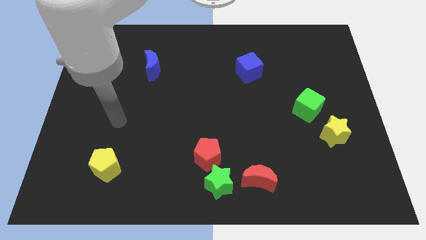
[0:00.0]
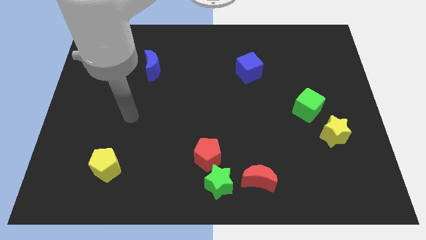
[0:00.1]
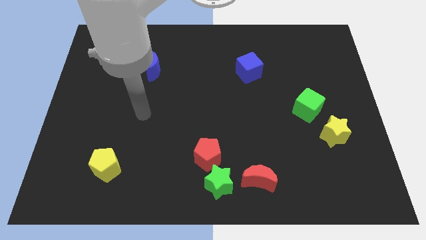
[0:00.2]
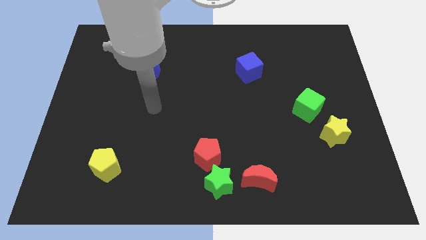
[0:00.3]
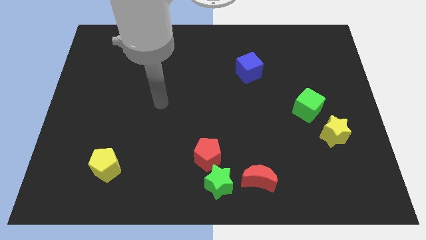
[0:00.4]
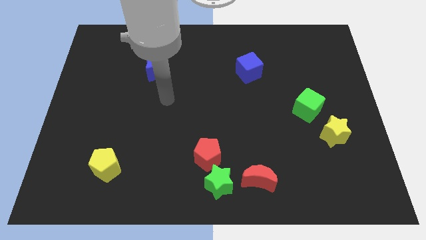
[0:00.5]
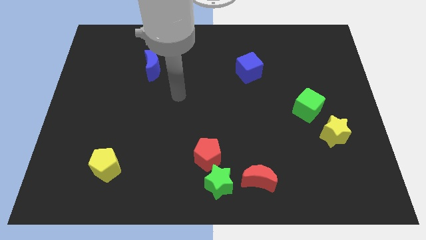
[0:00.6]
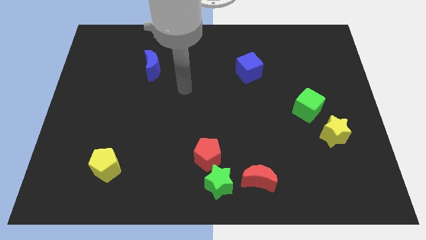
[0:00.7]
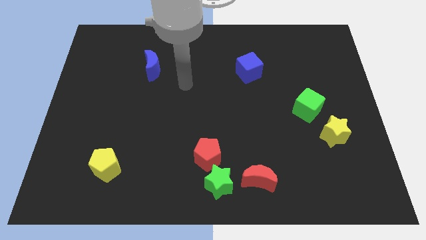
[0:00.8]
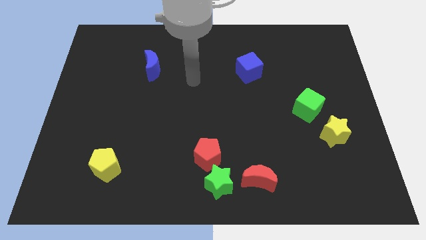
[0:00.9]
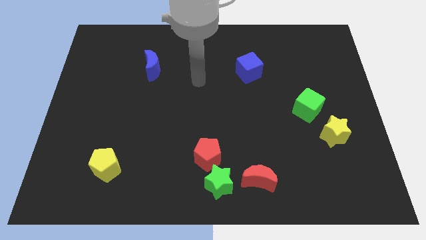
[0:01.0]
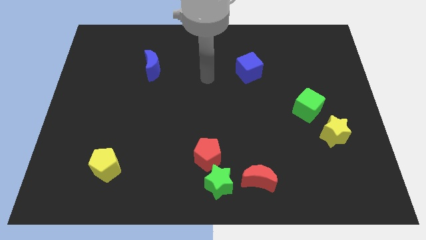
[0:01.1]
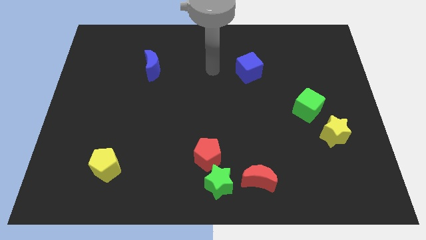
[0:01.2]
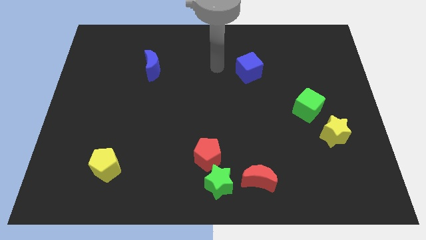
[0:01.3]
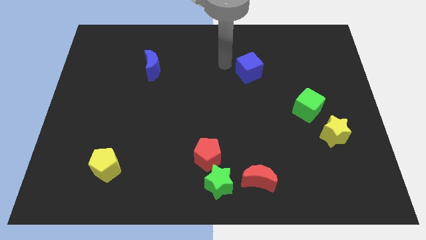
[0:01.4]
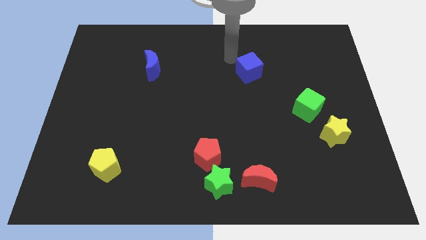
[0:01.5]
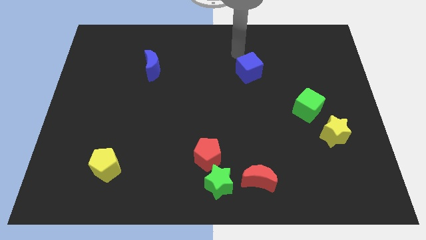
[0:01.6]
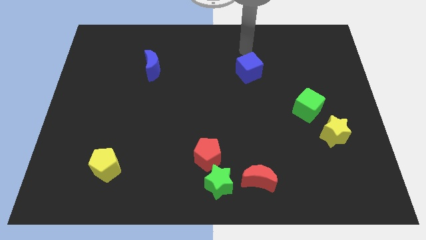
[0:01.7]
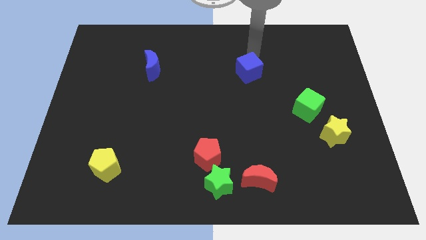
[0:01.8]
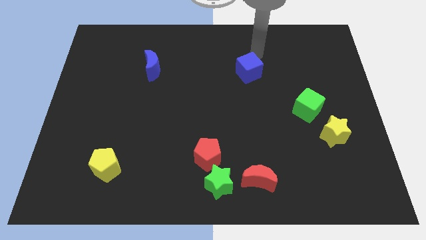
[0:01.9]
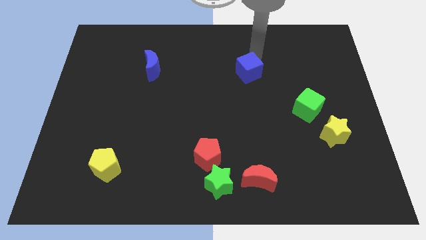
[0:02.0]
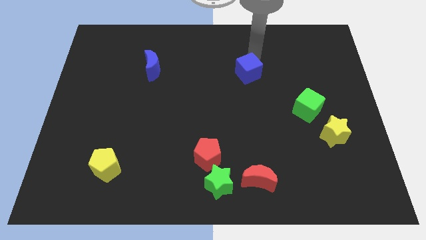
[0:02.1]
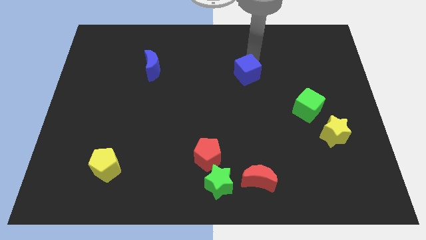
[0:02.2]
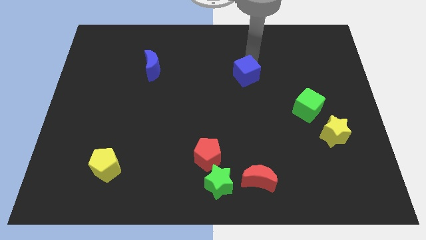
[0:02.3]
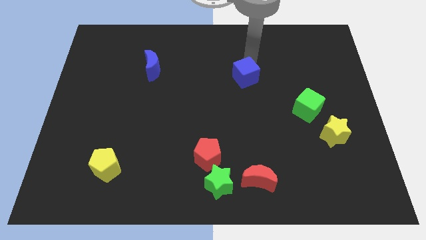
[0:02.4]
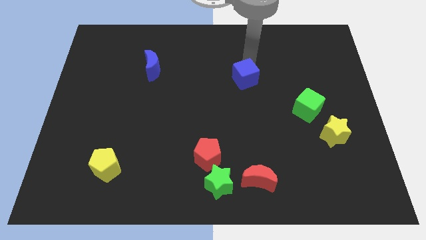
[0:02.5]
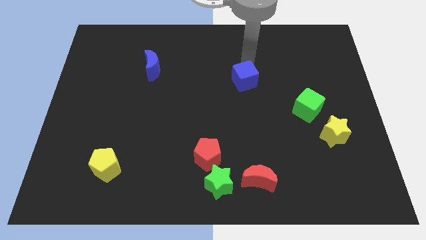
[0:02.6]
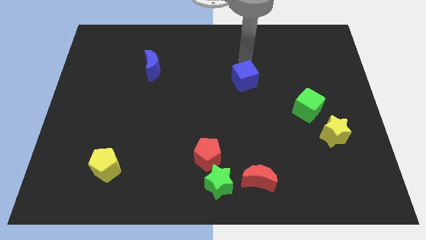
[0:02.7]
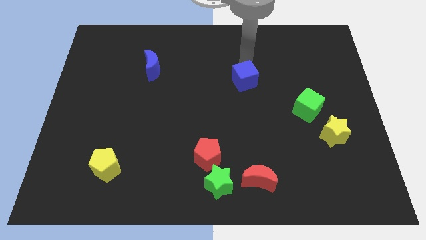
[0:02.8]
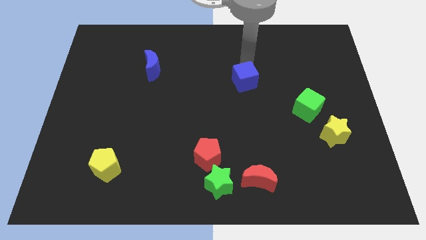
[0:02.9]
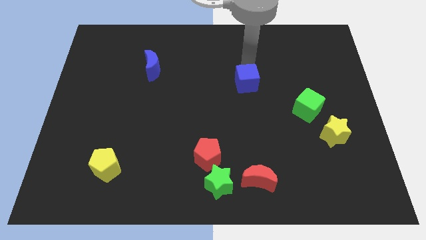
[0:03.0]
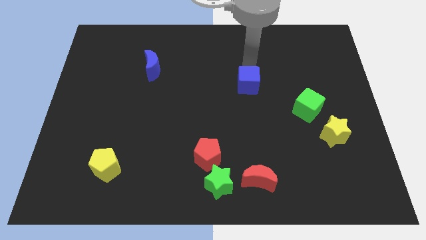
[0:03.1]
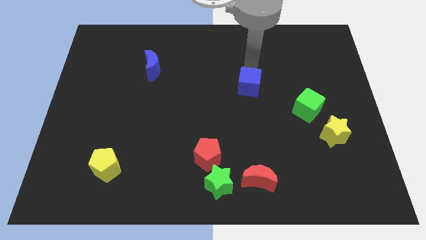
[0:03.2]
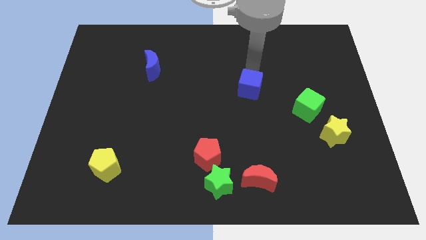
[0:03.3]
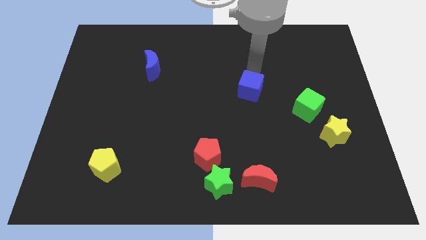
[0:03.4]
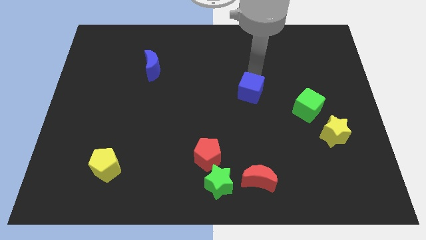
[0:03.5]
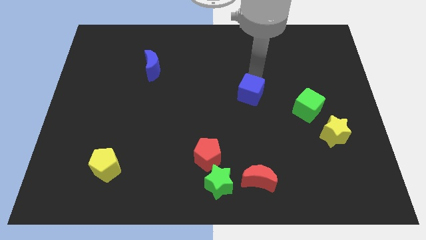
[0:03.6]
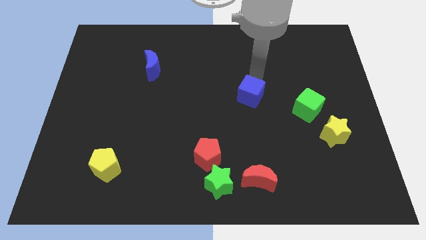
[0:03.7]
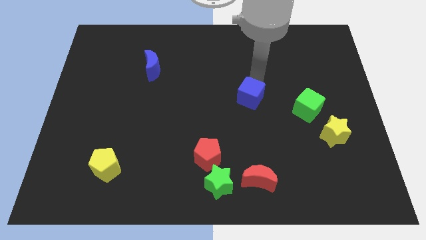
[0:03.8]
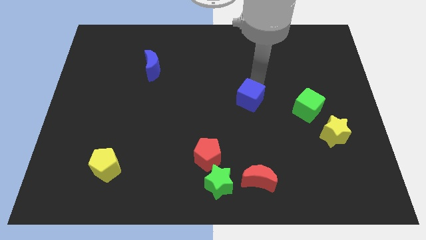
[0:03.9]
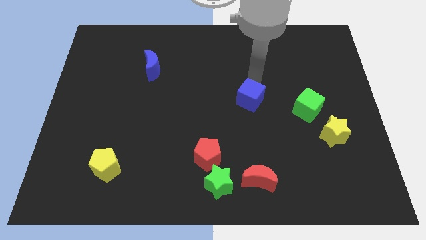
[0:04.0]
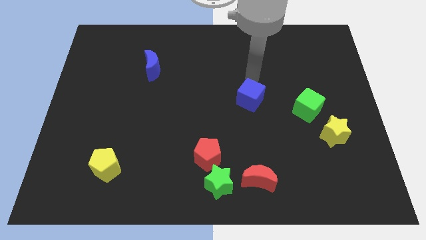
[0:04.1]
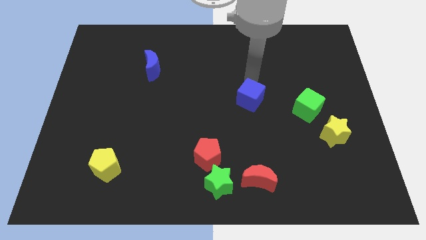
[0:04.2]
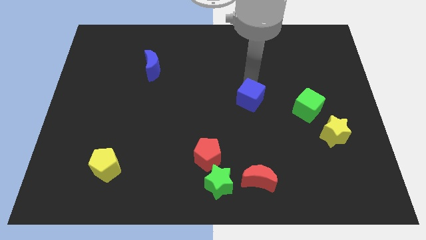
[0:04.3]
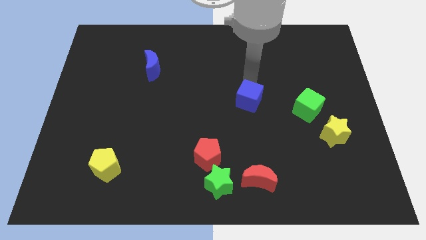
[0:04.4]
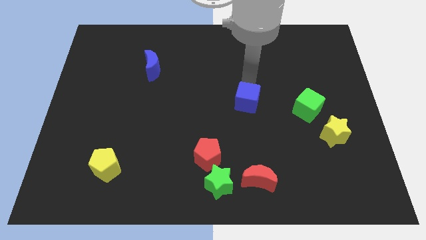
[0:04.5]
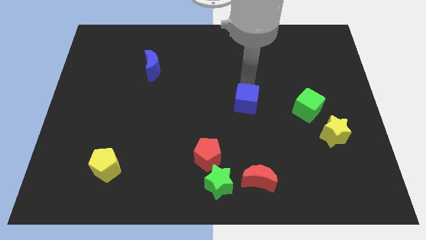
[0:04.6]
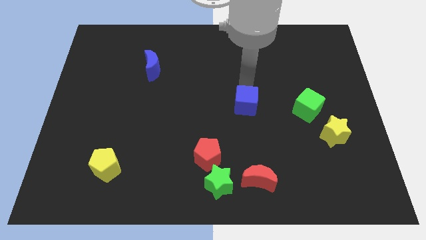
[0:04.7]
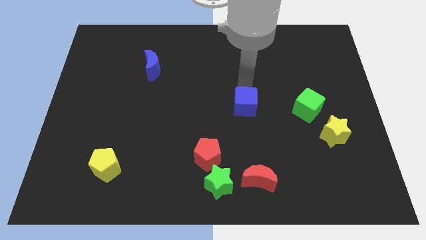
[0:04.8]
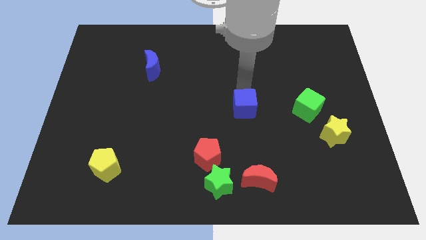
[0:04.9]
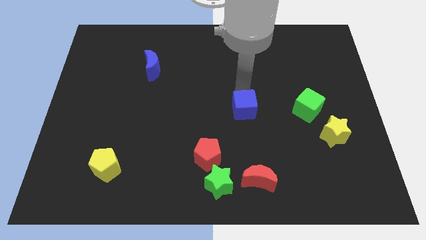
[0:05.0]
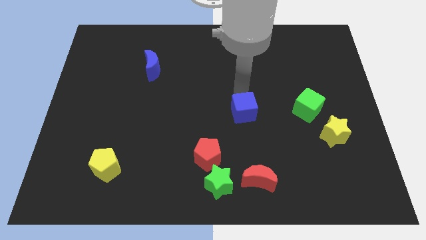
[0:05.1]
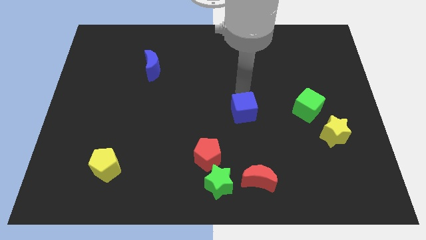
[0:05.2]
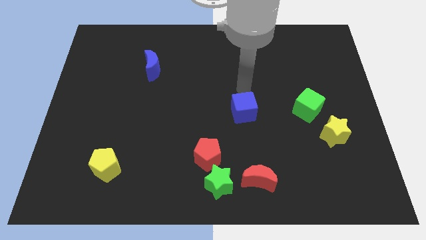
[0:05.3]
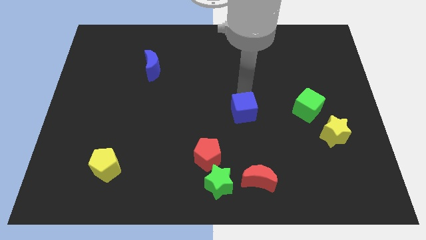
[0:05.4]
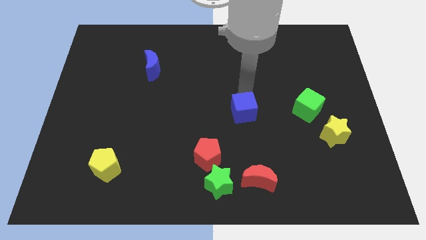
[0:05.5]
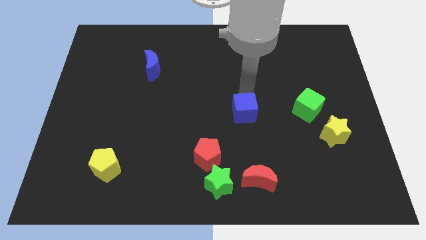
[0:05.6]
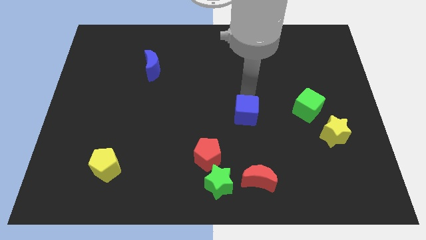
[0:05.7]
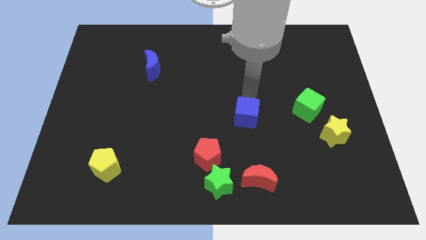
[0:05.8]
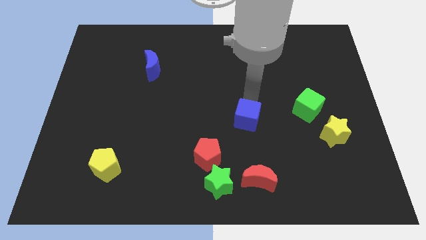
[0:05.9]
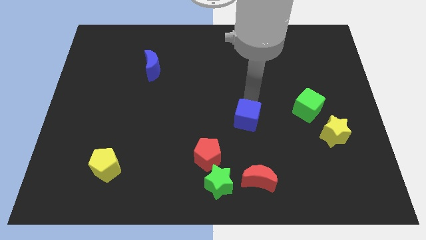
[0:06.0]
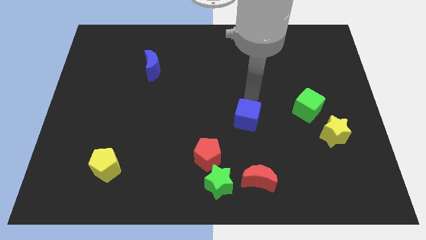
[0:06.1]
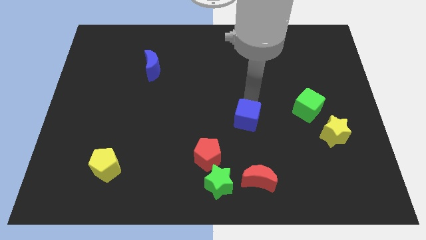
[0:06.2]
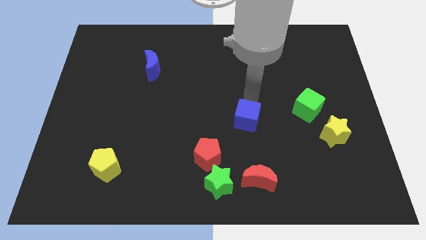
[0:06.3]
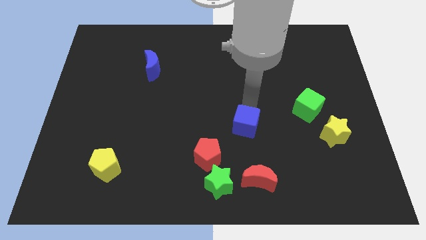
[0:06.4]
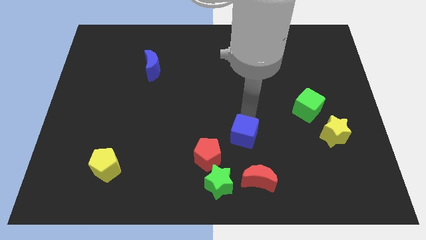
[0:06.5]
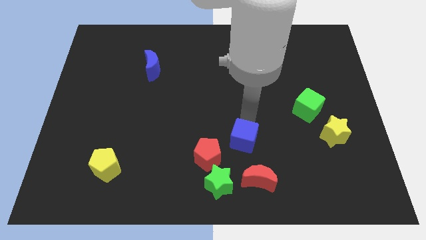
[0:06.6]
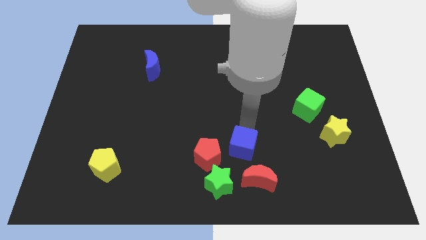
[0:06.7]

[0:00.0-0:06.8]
put the blue cube diagonally up and to the left of the red moon

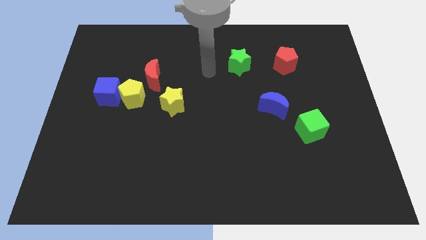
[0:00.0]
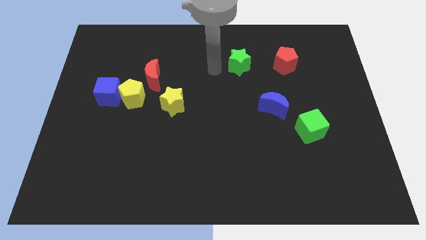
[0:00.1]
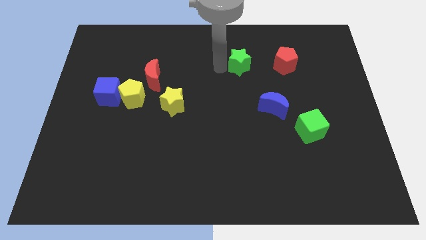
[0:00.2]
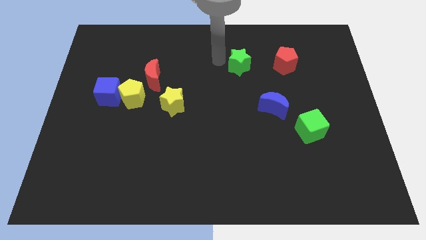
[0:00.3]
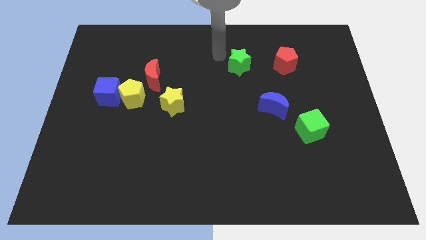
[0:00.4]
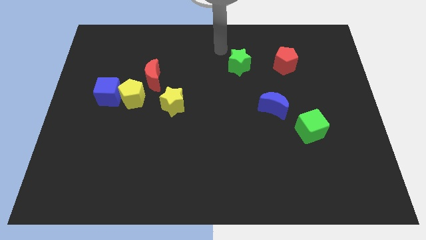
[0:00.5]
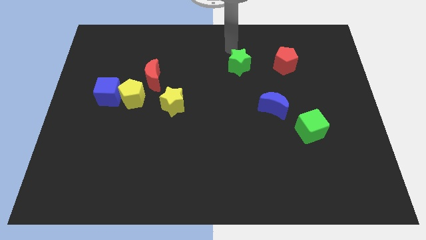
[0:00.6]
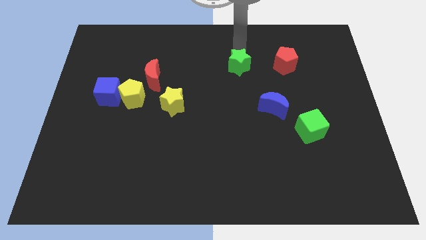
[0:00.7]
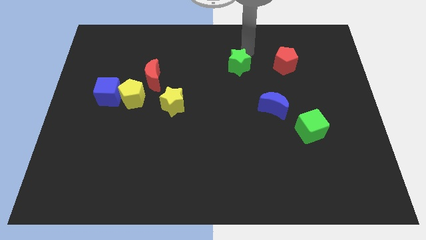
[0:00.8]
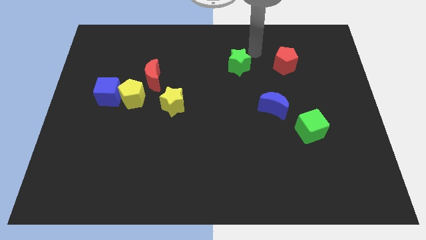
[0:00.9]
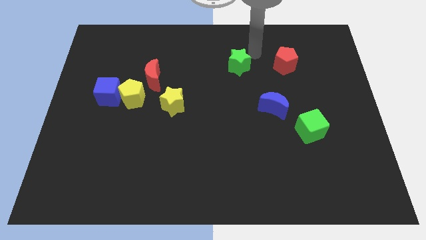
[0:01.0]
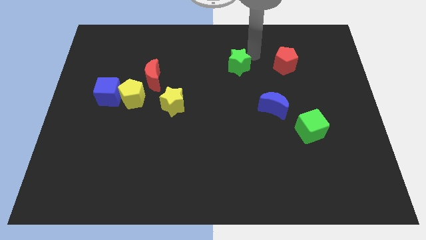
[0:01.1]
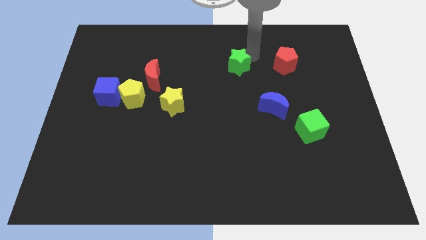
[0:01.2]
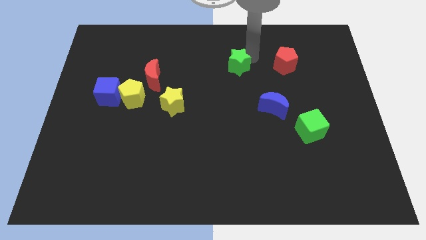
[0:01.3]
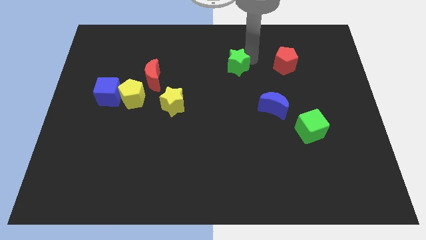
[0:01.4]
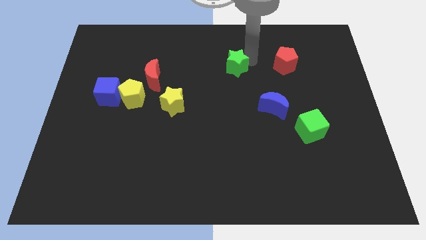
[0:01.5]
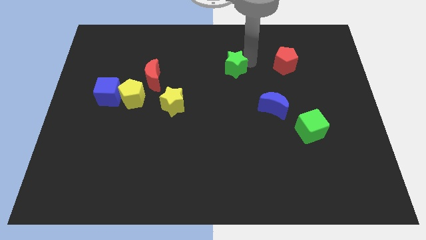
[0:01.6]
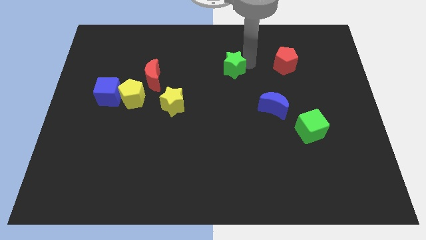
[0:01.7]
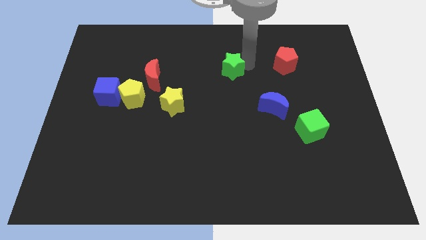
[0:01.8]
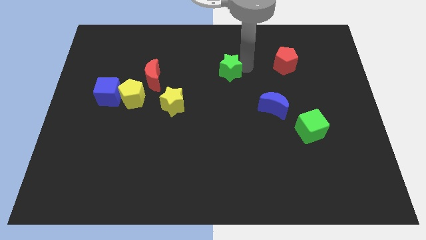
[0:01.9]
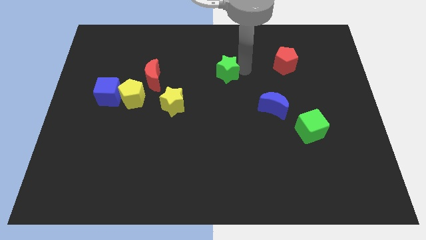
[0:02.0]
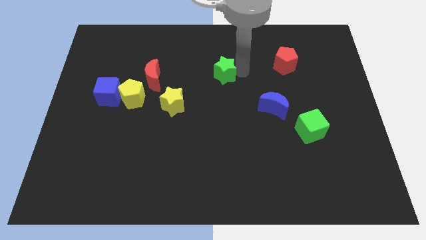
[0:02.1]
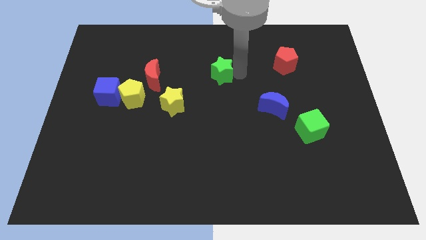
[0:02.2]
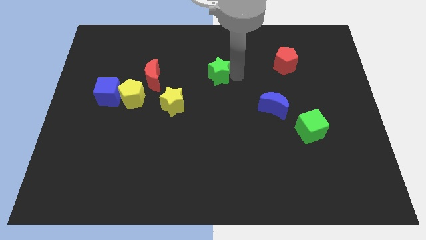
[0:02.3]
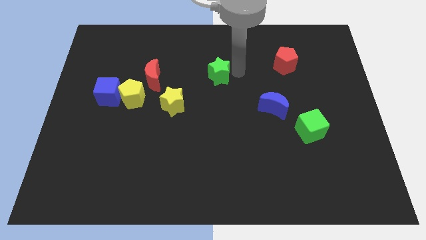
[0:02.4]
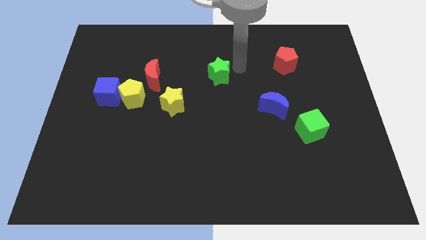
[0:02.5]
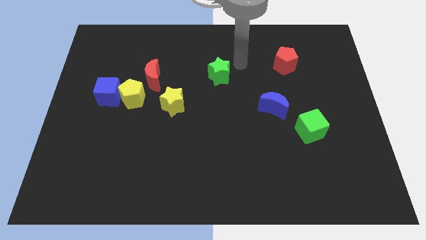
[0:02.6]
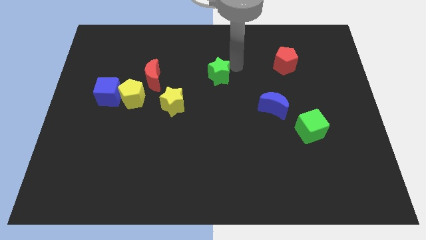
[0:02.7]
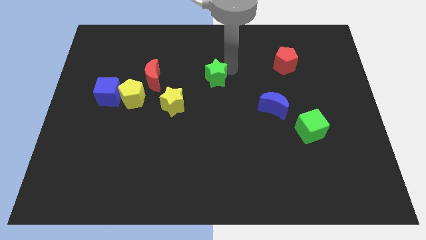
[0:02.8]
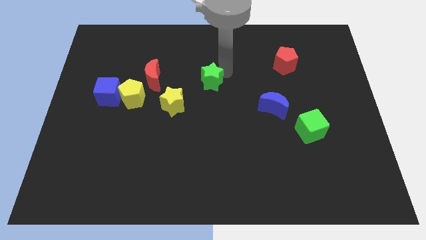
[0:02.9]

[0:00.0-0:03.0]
push the green star diagonally up and to the right of the yellow star
